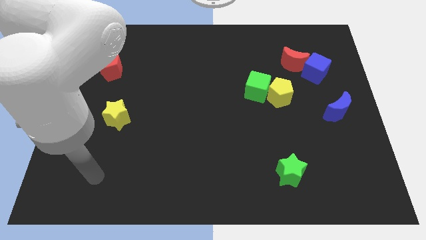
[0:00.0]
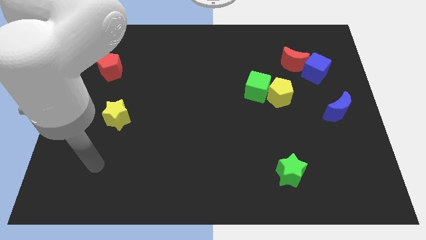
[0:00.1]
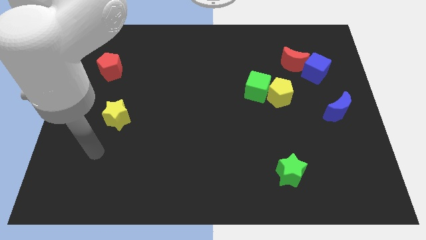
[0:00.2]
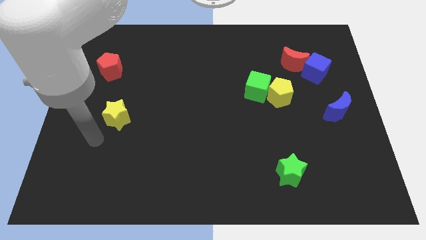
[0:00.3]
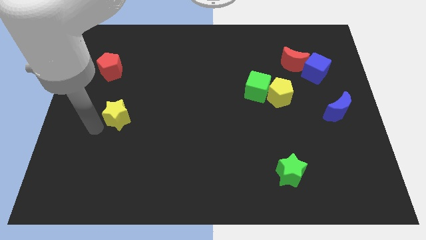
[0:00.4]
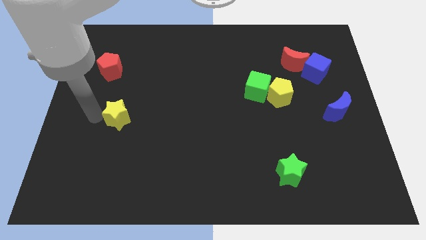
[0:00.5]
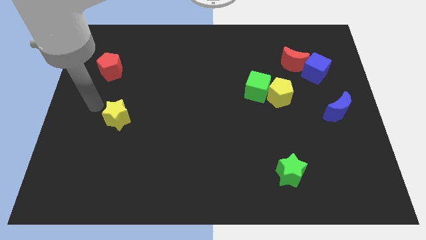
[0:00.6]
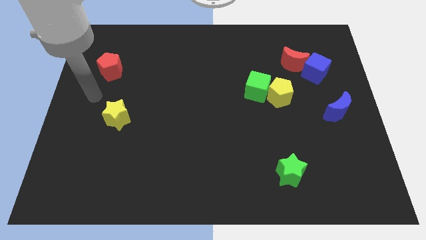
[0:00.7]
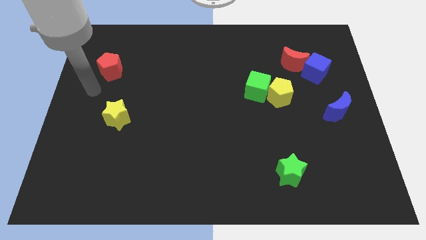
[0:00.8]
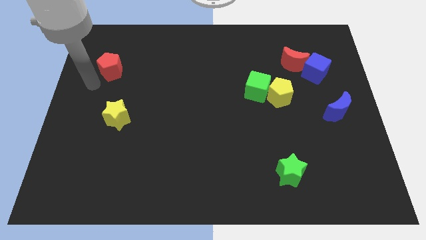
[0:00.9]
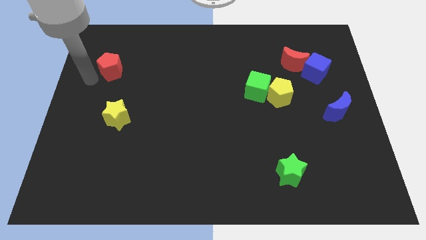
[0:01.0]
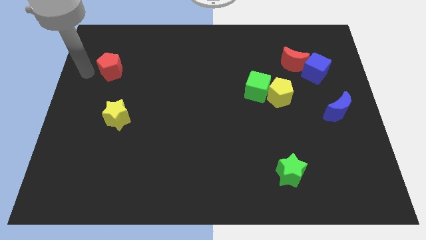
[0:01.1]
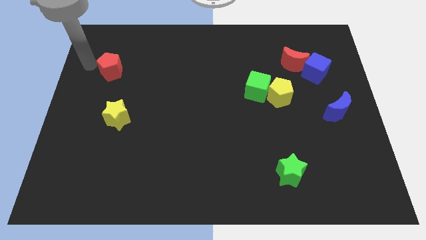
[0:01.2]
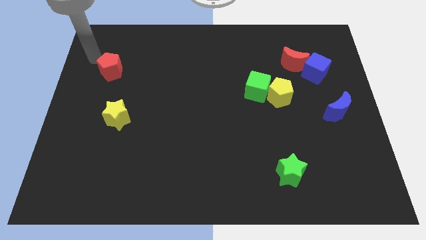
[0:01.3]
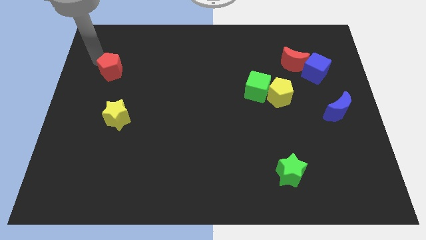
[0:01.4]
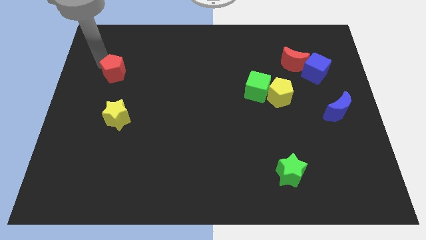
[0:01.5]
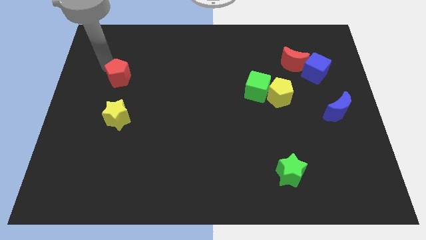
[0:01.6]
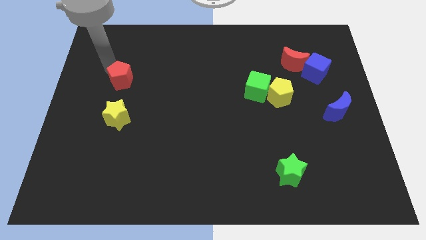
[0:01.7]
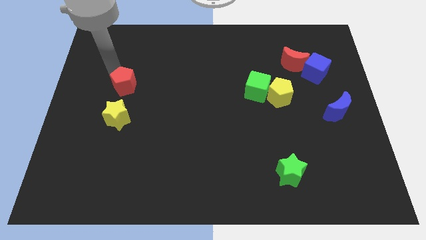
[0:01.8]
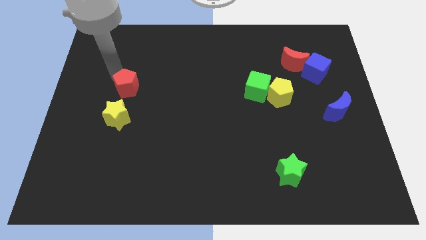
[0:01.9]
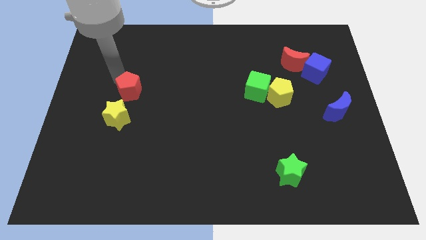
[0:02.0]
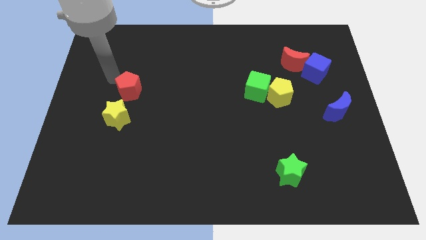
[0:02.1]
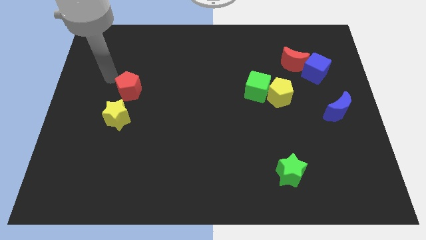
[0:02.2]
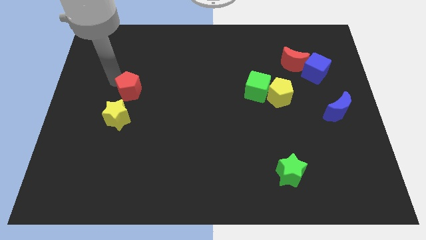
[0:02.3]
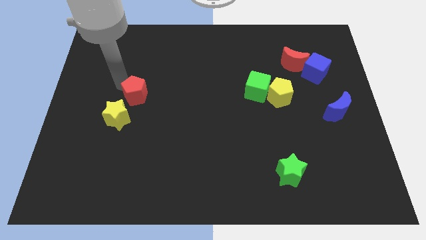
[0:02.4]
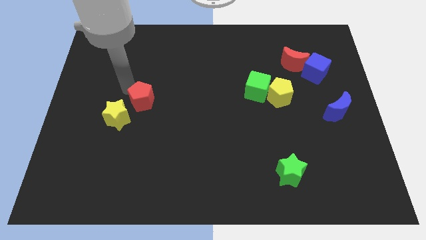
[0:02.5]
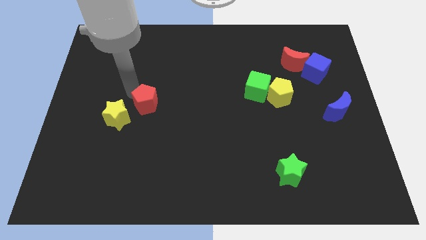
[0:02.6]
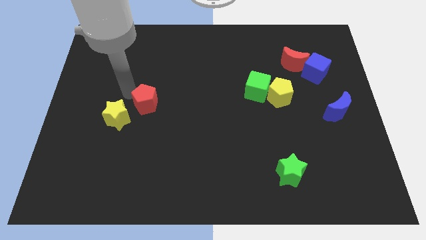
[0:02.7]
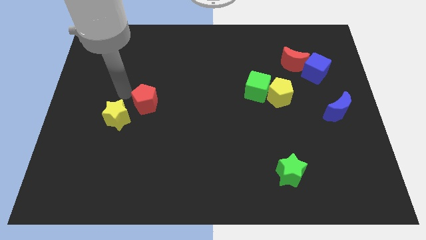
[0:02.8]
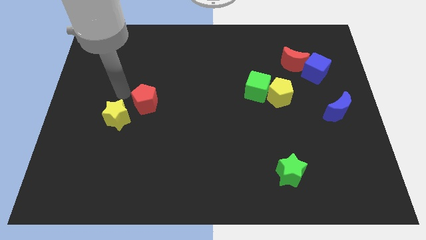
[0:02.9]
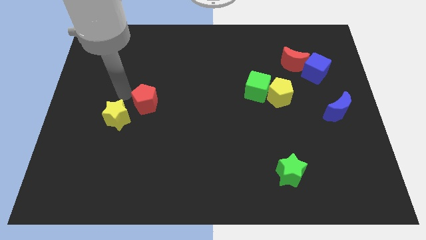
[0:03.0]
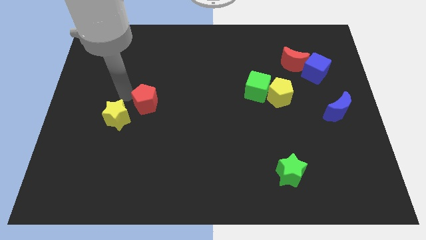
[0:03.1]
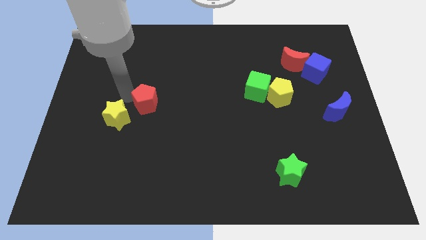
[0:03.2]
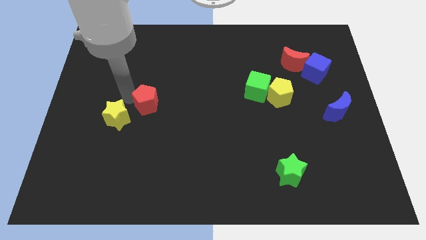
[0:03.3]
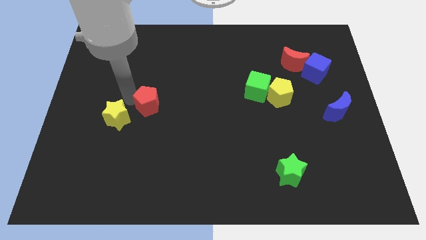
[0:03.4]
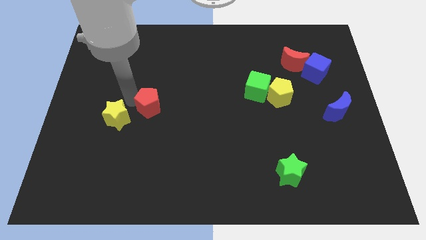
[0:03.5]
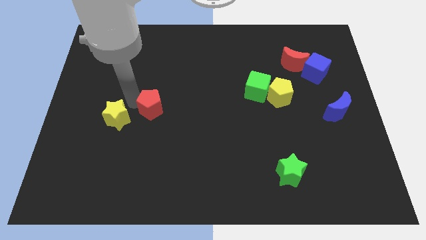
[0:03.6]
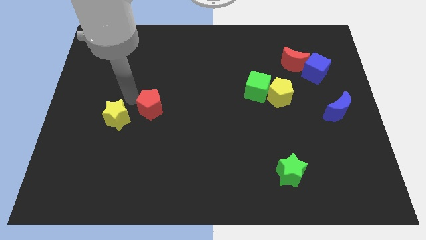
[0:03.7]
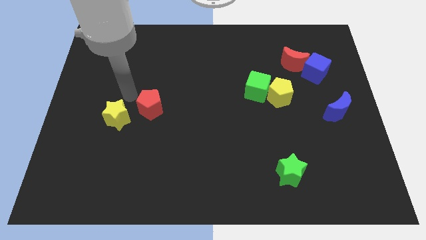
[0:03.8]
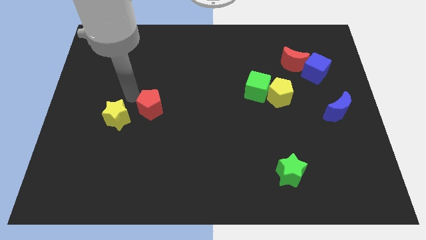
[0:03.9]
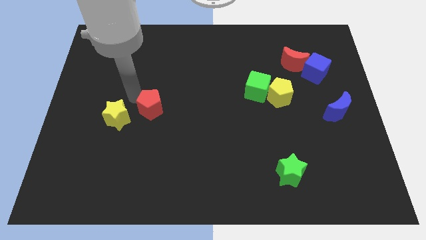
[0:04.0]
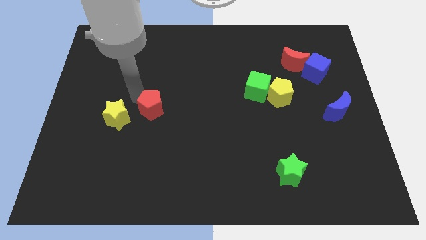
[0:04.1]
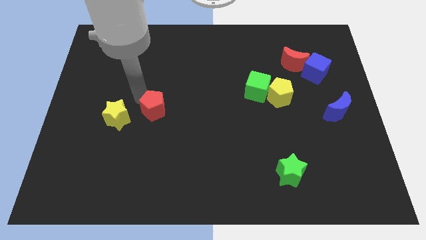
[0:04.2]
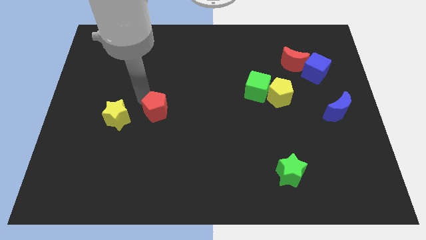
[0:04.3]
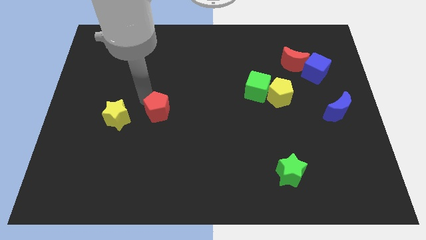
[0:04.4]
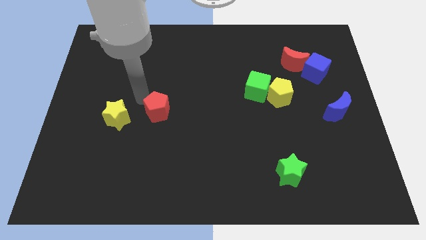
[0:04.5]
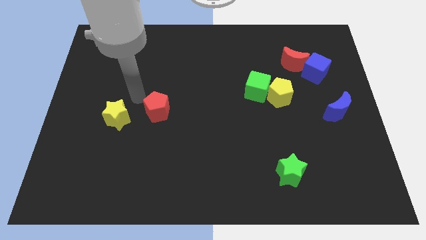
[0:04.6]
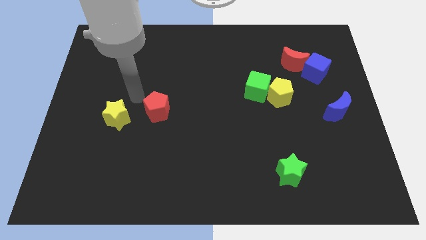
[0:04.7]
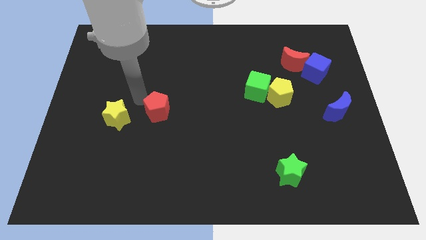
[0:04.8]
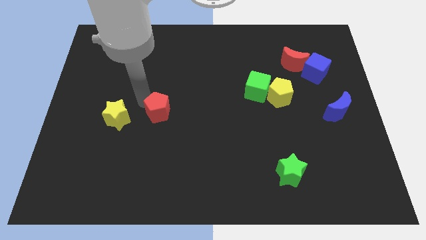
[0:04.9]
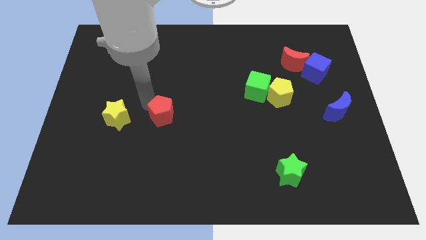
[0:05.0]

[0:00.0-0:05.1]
slide the red pentagon down and right diagonally

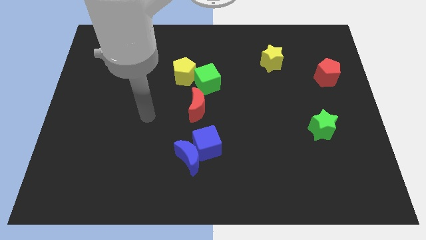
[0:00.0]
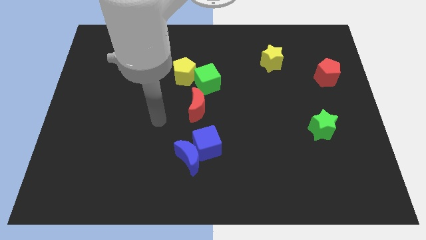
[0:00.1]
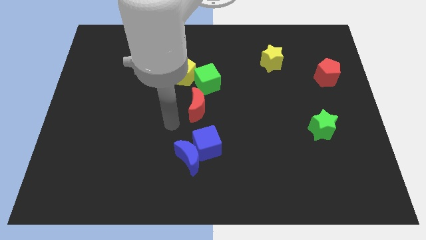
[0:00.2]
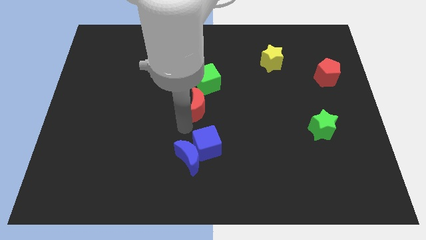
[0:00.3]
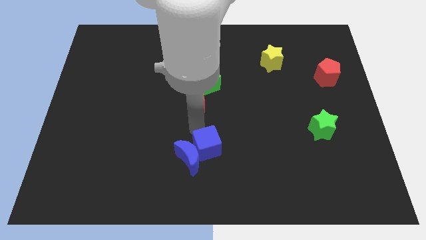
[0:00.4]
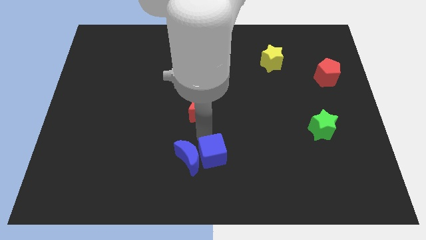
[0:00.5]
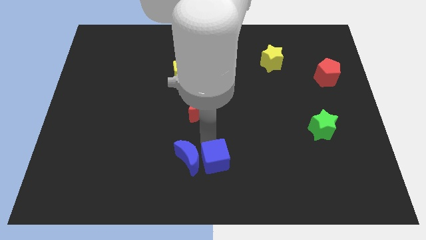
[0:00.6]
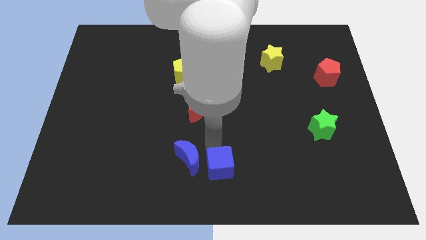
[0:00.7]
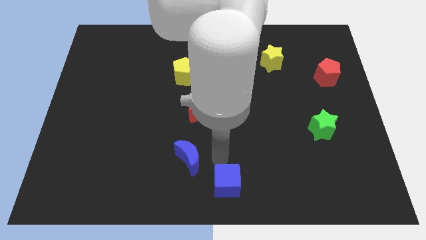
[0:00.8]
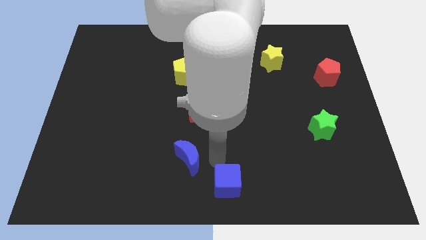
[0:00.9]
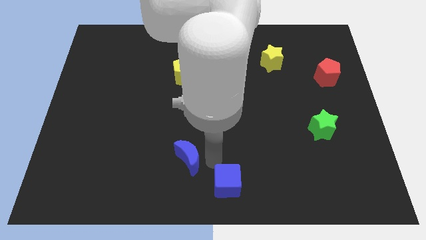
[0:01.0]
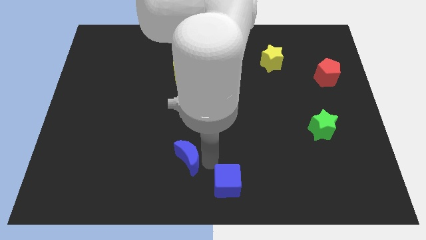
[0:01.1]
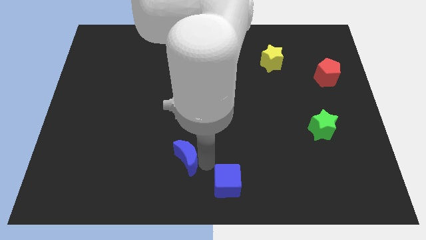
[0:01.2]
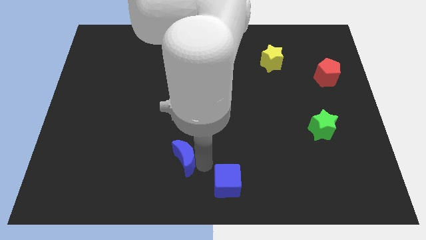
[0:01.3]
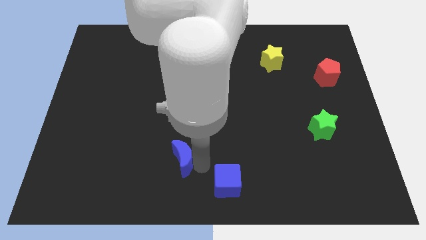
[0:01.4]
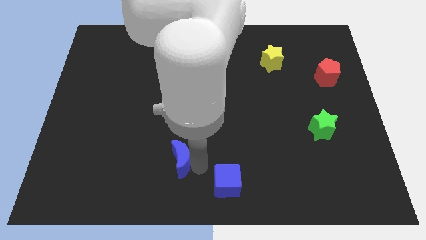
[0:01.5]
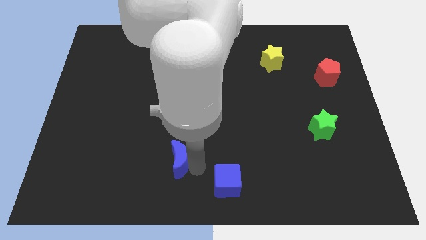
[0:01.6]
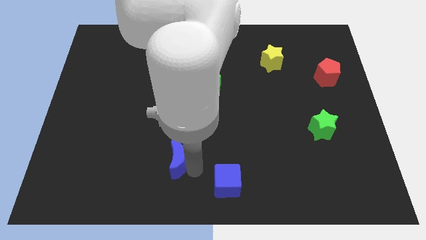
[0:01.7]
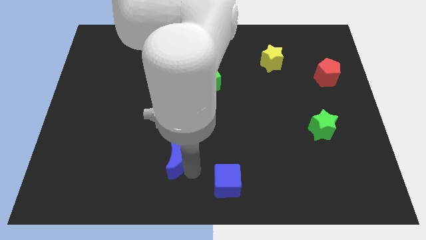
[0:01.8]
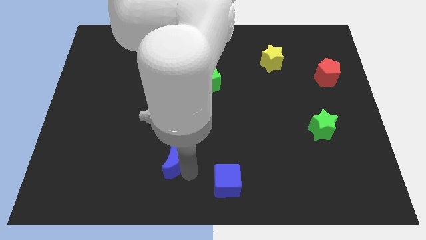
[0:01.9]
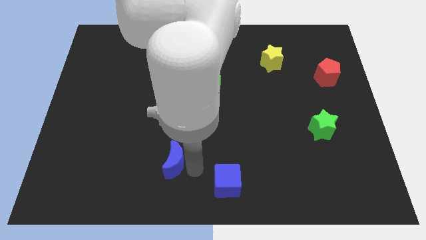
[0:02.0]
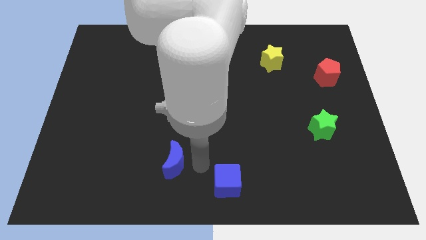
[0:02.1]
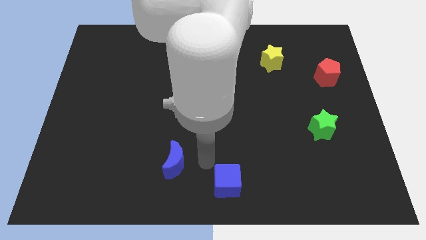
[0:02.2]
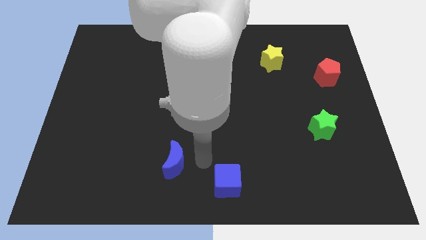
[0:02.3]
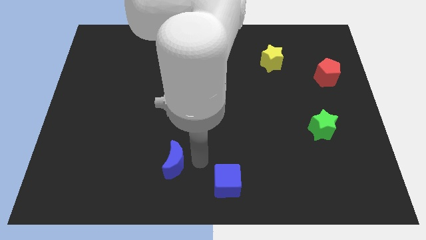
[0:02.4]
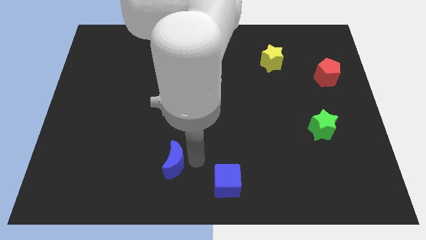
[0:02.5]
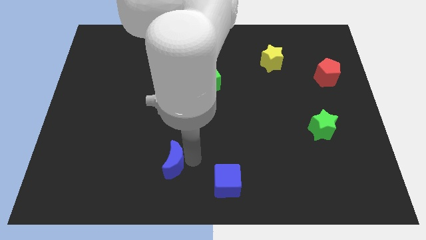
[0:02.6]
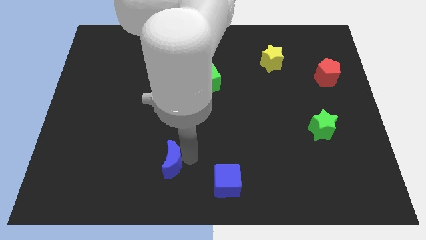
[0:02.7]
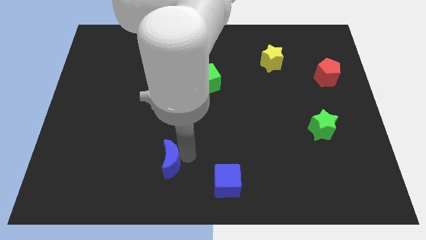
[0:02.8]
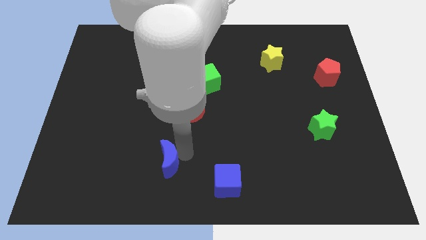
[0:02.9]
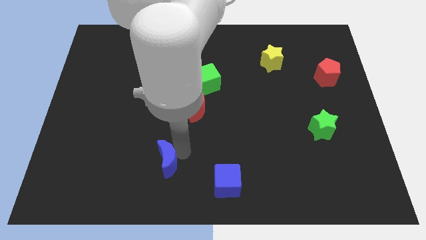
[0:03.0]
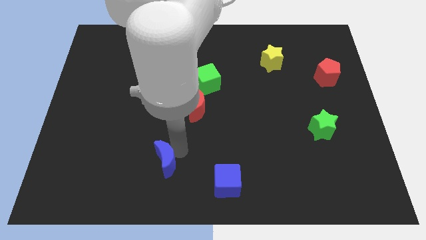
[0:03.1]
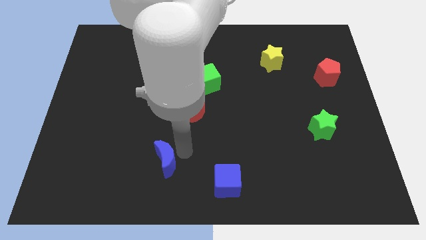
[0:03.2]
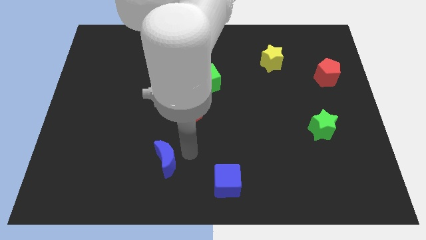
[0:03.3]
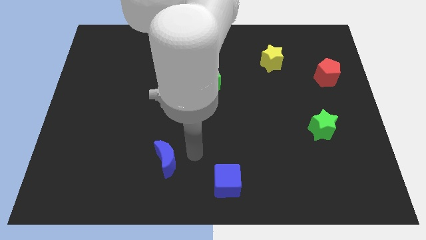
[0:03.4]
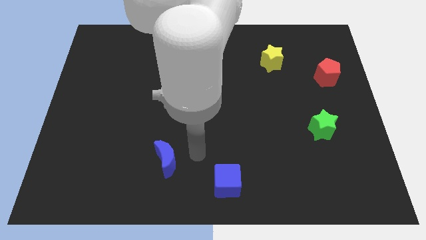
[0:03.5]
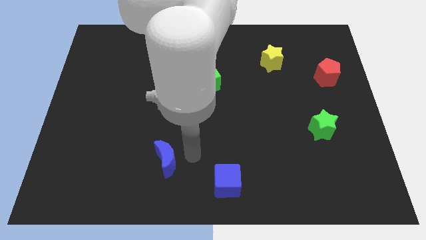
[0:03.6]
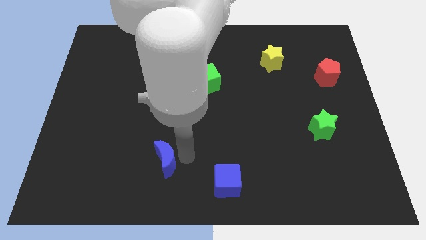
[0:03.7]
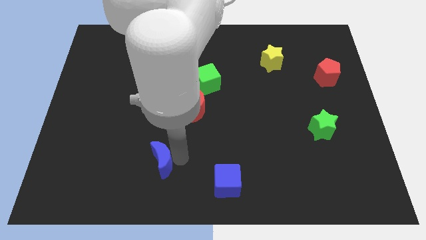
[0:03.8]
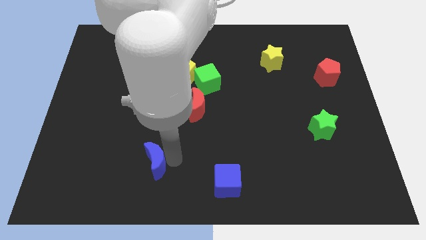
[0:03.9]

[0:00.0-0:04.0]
slightly move the blue moon to the left
